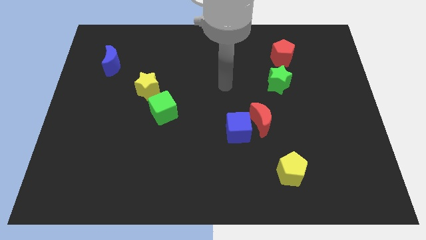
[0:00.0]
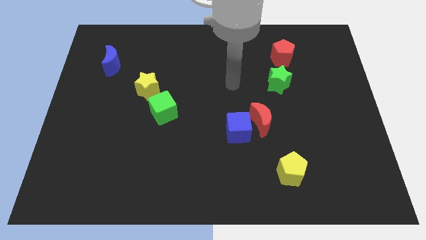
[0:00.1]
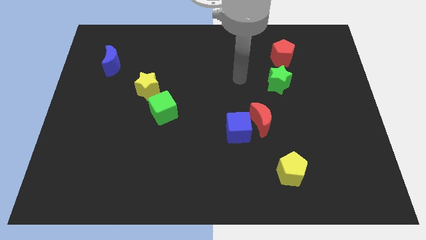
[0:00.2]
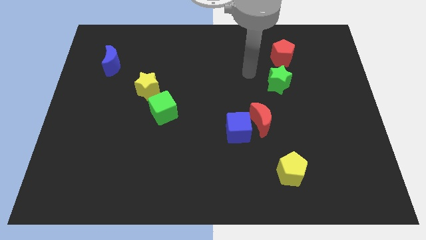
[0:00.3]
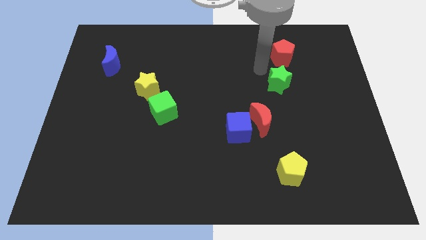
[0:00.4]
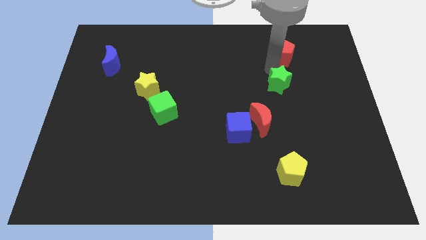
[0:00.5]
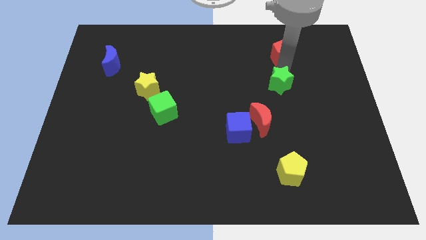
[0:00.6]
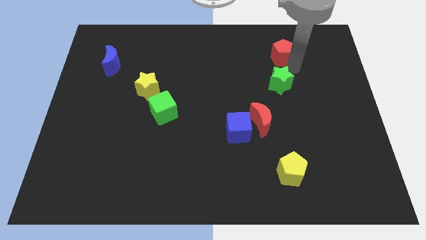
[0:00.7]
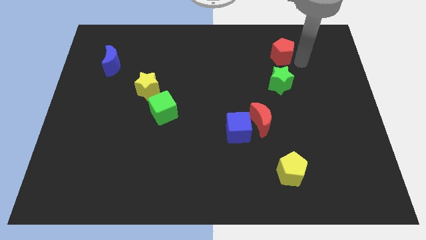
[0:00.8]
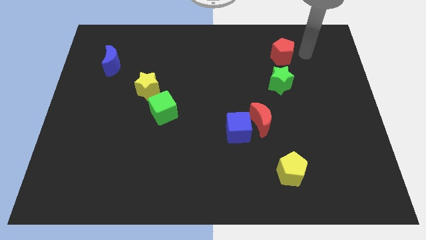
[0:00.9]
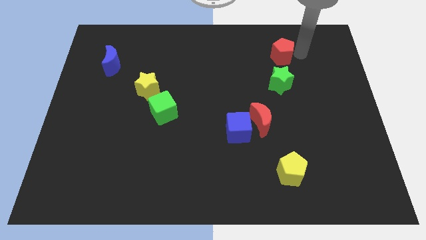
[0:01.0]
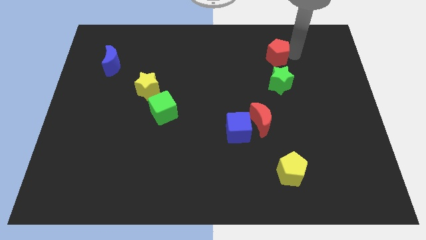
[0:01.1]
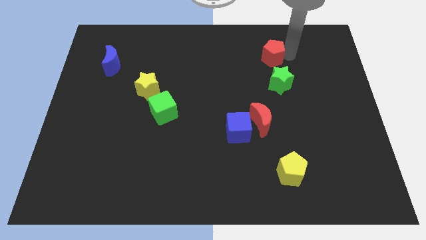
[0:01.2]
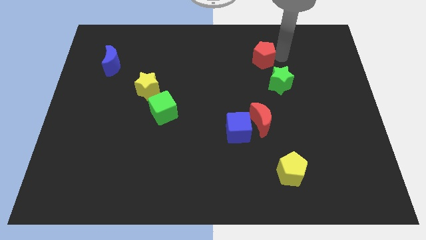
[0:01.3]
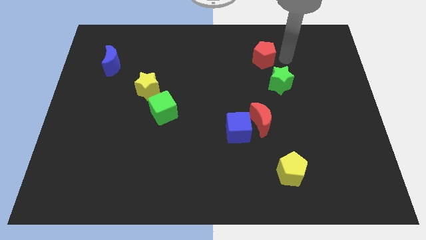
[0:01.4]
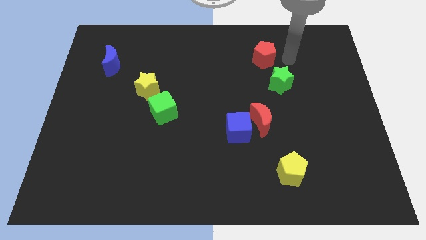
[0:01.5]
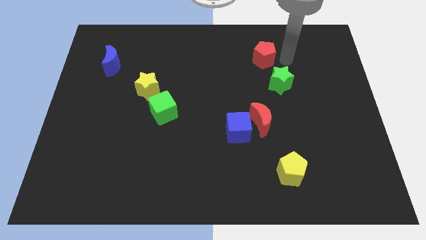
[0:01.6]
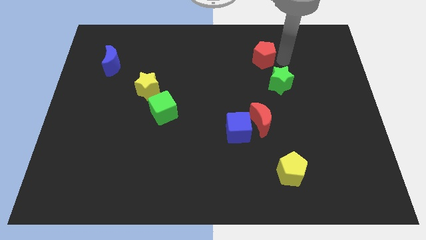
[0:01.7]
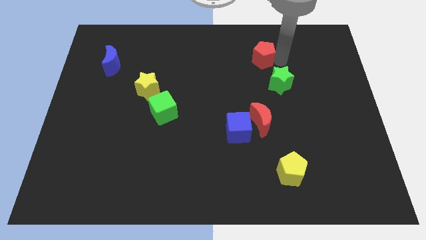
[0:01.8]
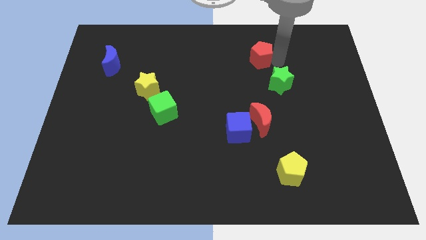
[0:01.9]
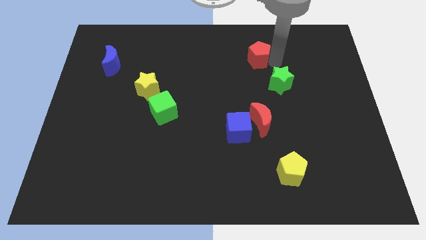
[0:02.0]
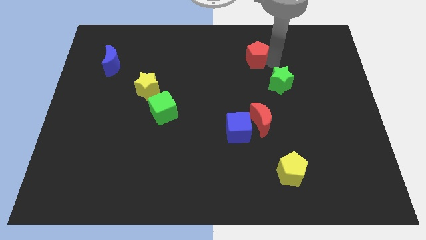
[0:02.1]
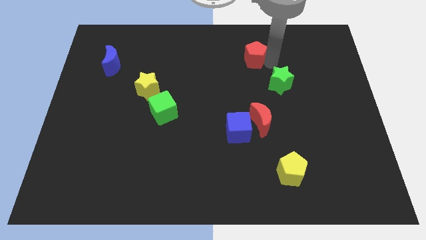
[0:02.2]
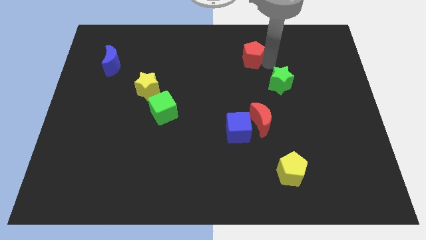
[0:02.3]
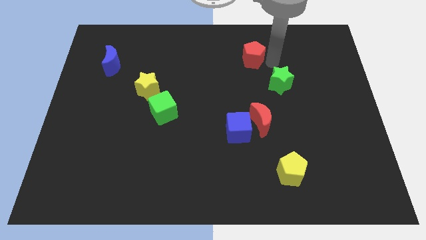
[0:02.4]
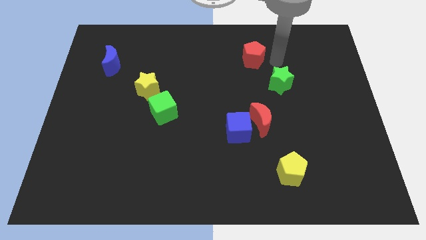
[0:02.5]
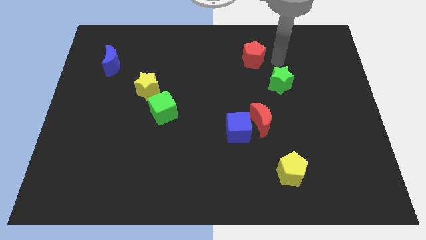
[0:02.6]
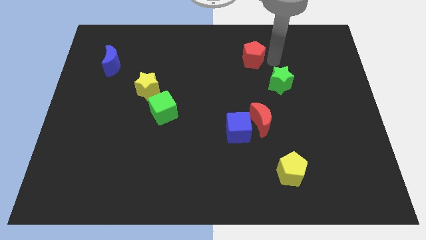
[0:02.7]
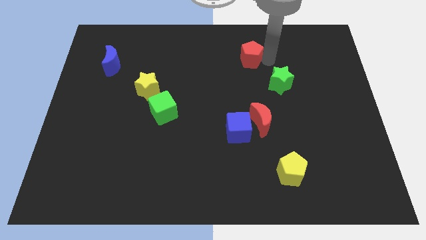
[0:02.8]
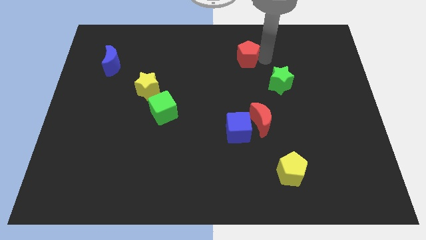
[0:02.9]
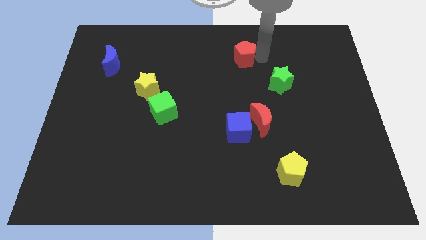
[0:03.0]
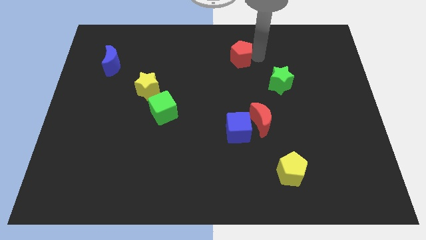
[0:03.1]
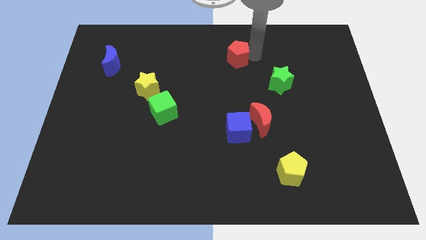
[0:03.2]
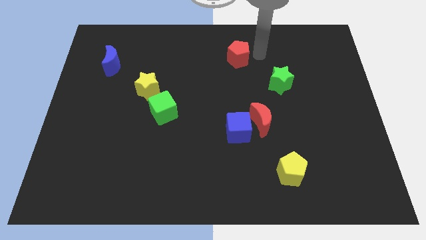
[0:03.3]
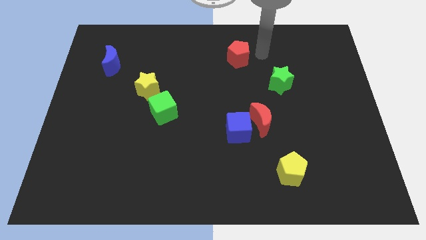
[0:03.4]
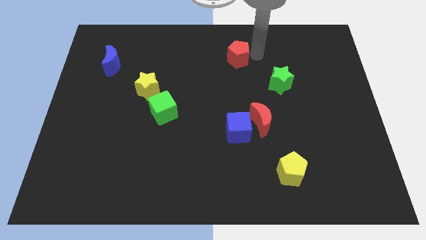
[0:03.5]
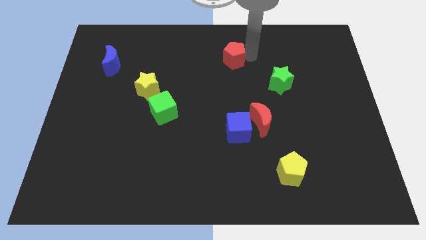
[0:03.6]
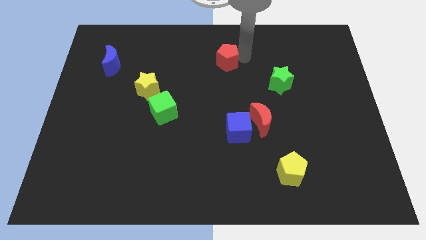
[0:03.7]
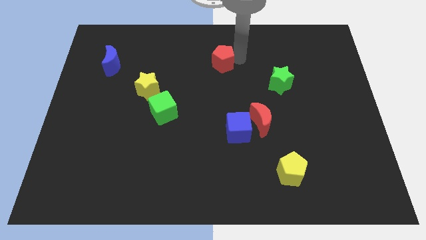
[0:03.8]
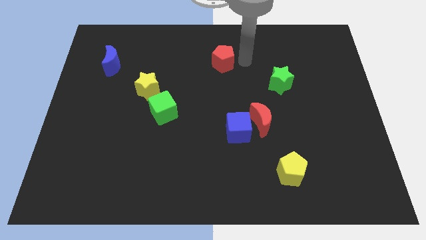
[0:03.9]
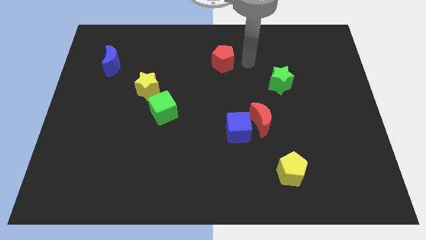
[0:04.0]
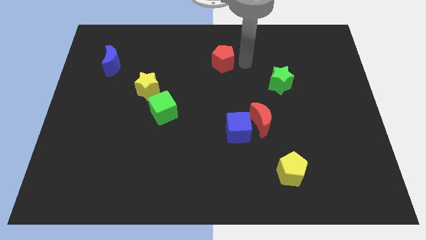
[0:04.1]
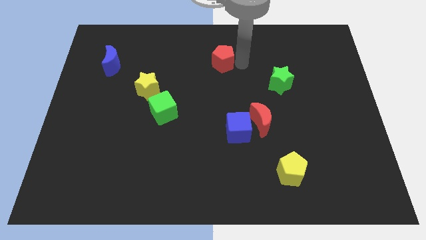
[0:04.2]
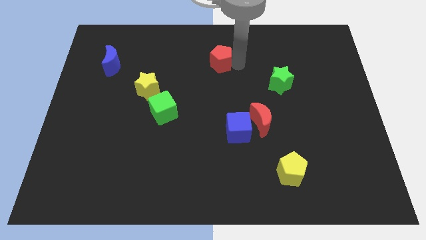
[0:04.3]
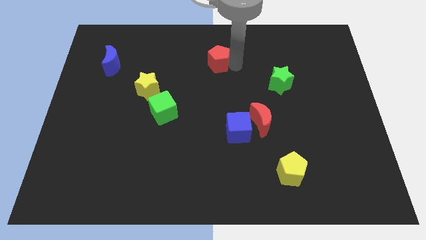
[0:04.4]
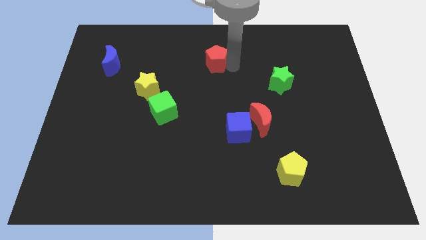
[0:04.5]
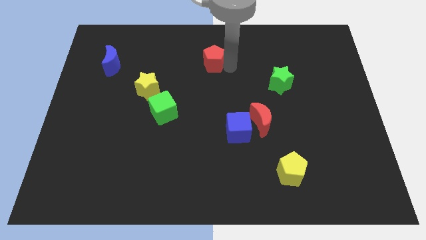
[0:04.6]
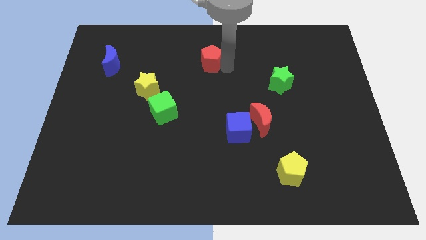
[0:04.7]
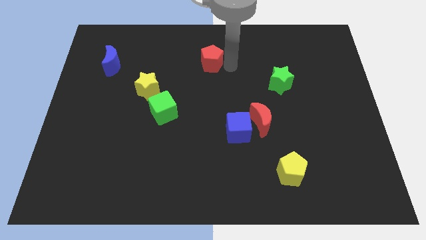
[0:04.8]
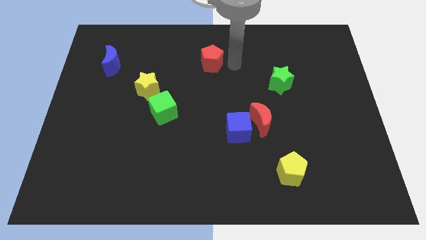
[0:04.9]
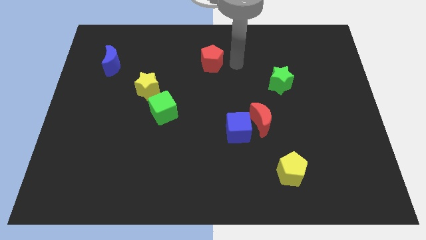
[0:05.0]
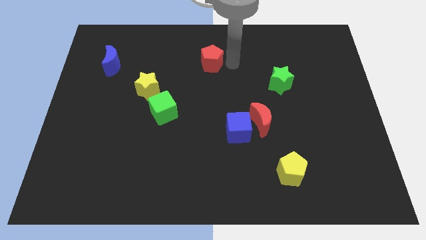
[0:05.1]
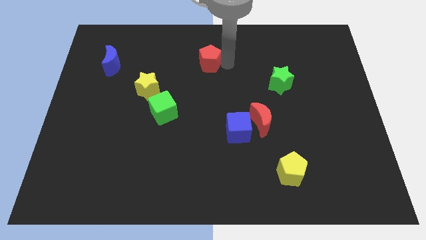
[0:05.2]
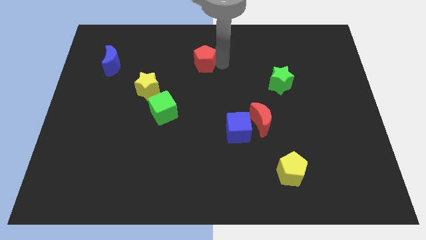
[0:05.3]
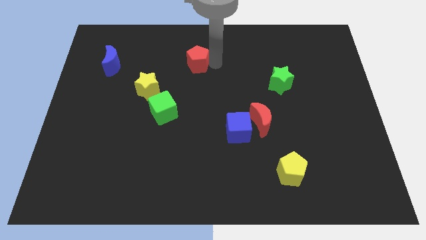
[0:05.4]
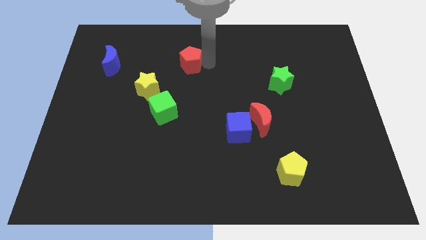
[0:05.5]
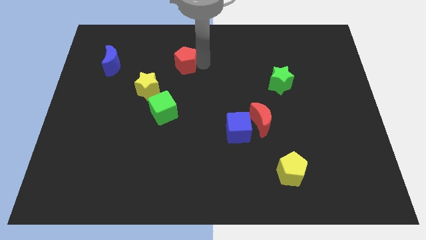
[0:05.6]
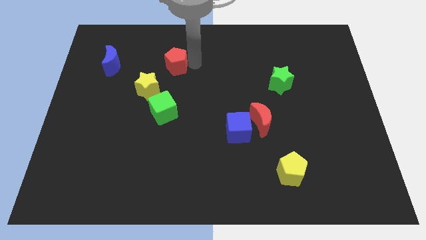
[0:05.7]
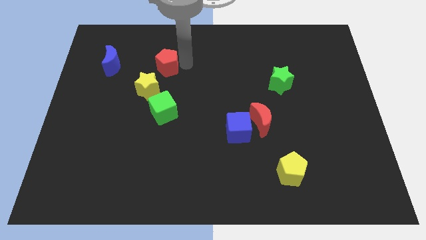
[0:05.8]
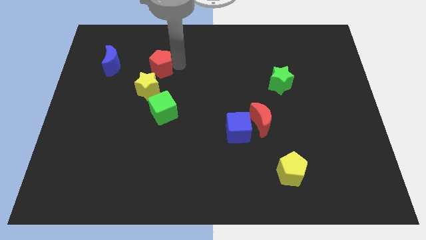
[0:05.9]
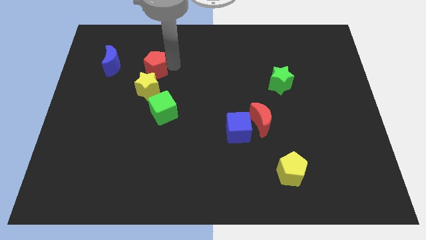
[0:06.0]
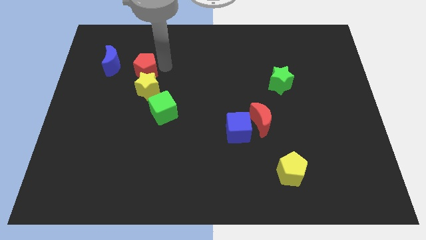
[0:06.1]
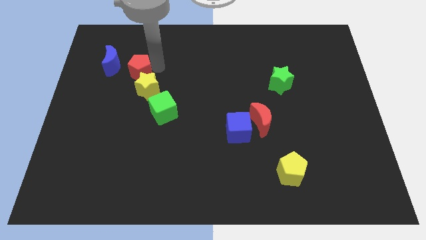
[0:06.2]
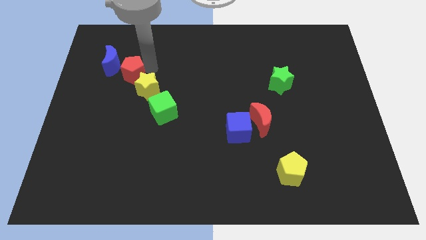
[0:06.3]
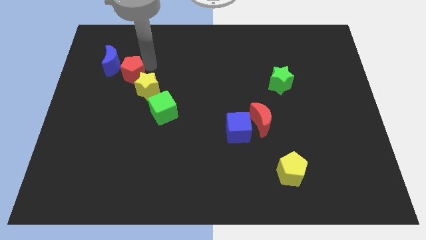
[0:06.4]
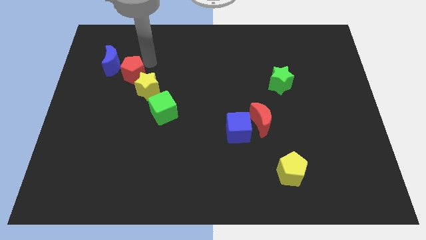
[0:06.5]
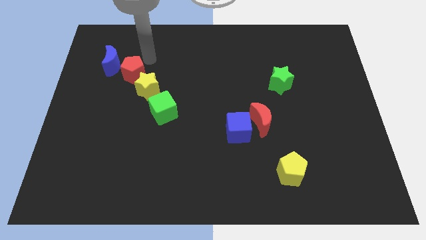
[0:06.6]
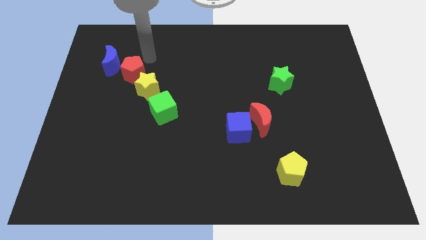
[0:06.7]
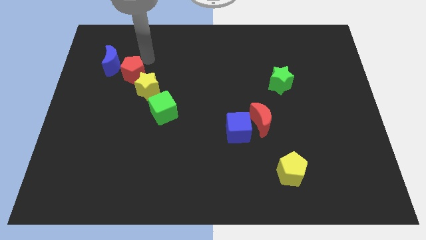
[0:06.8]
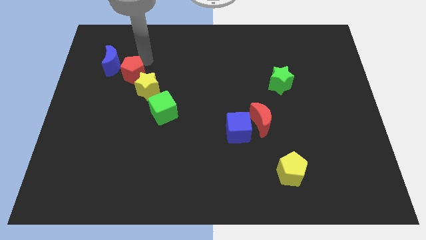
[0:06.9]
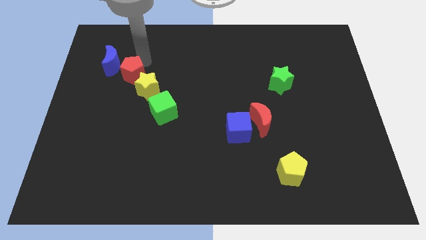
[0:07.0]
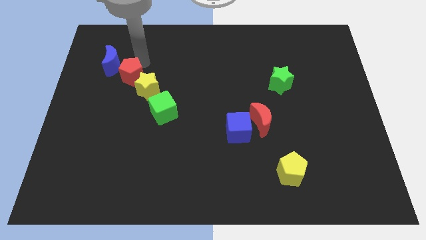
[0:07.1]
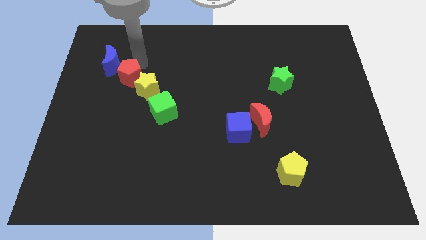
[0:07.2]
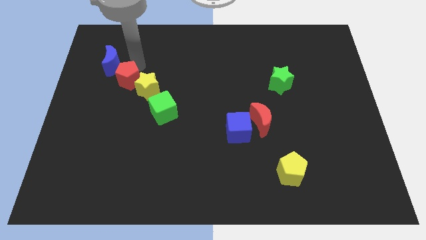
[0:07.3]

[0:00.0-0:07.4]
slide the red pentagon to the bottom side of the blue moon

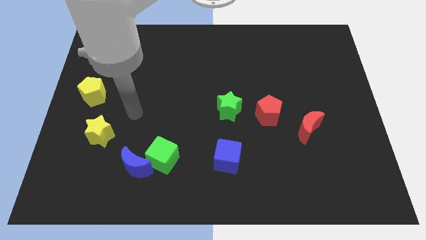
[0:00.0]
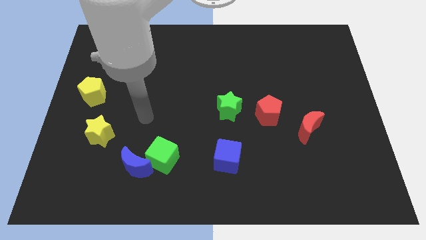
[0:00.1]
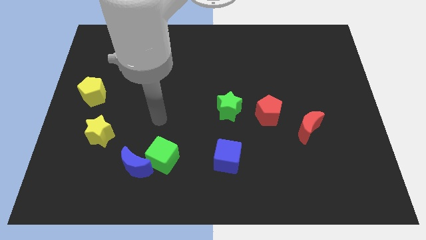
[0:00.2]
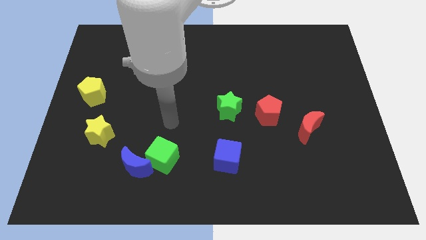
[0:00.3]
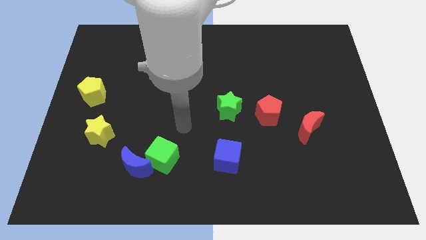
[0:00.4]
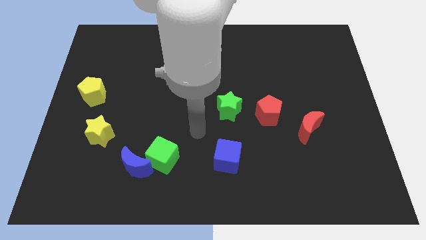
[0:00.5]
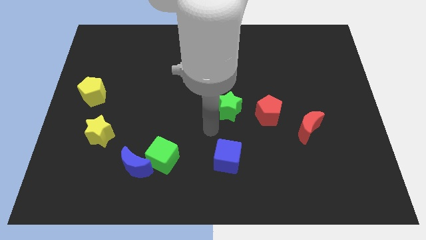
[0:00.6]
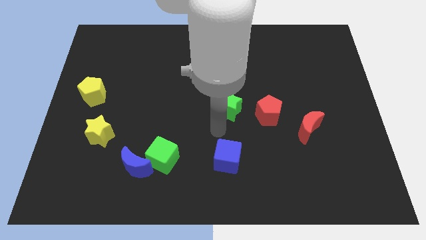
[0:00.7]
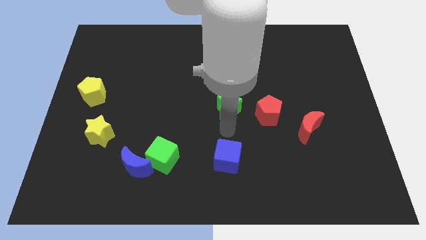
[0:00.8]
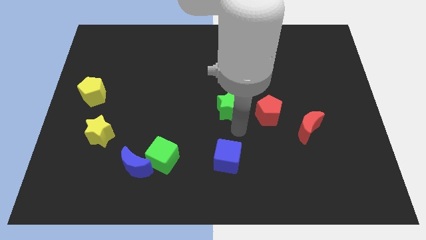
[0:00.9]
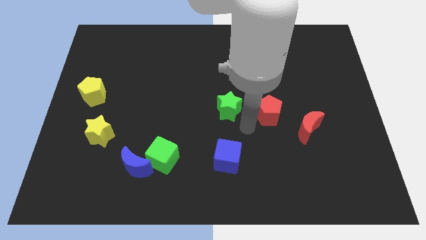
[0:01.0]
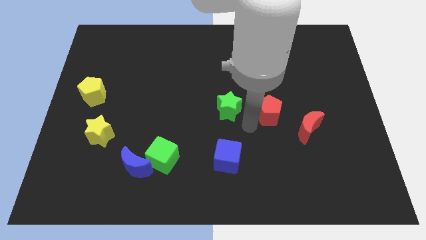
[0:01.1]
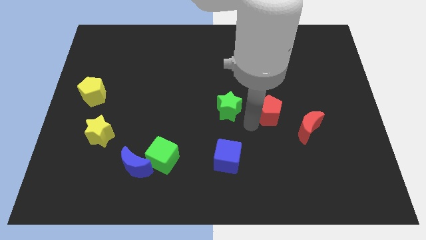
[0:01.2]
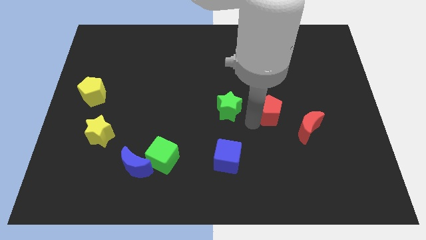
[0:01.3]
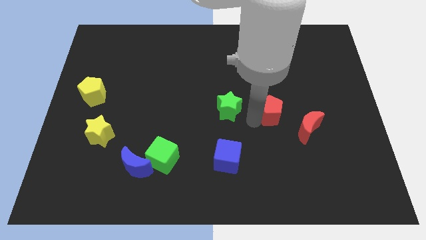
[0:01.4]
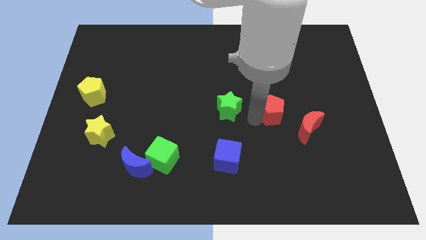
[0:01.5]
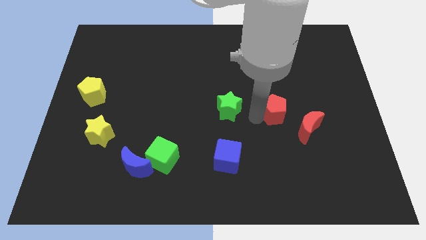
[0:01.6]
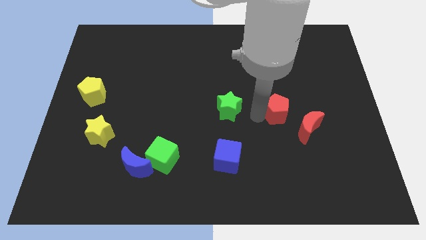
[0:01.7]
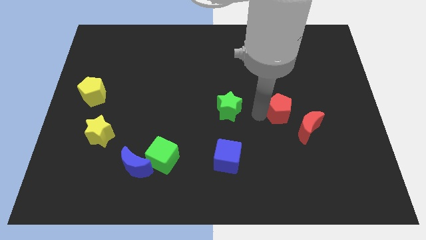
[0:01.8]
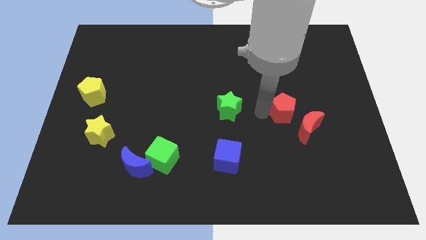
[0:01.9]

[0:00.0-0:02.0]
put the red pentagon to the top side of the red moon
